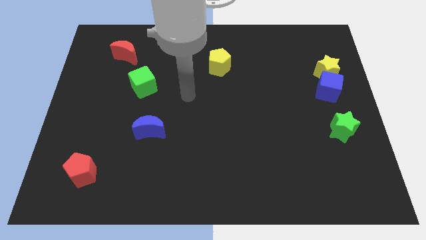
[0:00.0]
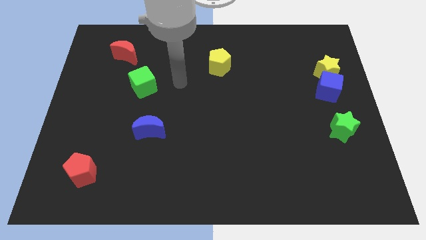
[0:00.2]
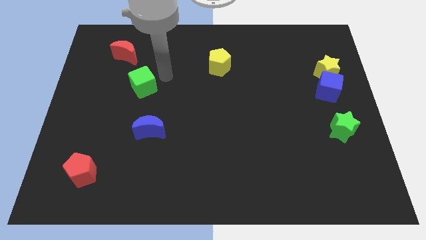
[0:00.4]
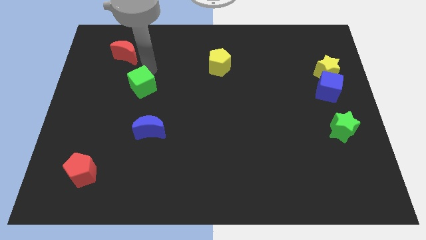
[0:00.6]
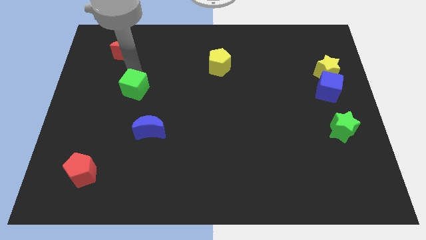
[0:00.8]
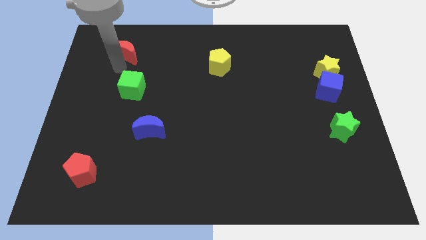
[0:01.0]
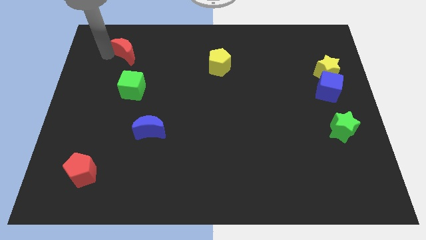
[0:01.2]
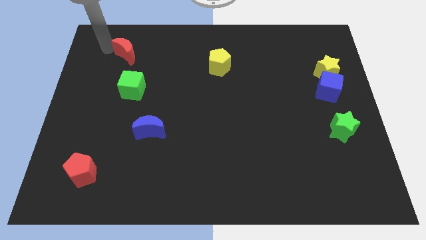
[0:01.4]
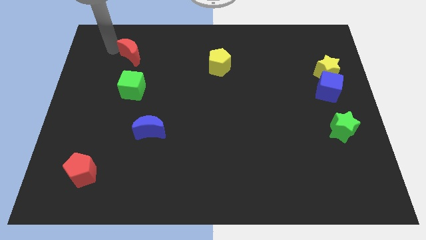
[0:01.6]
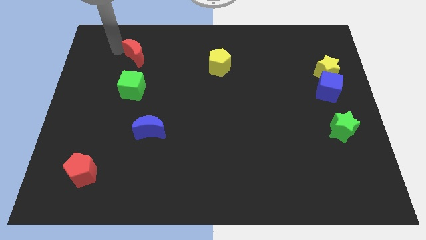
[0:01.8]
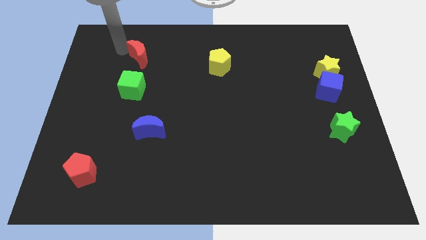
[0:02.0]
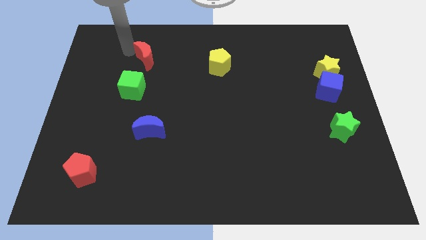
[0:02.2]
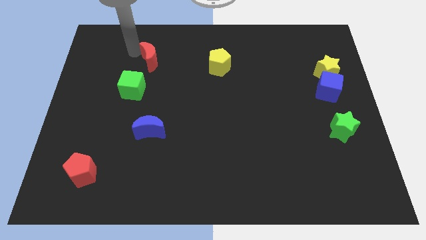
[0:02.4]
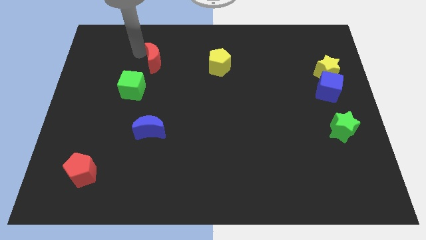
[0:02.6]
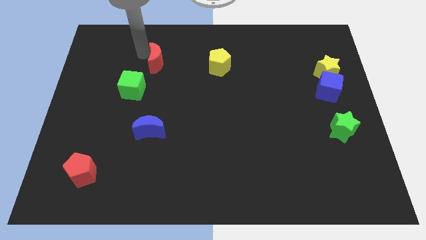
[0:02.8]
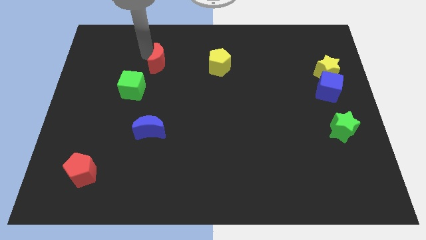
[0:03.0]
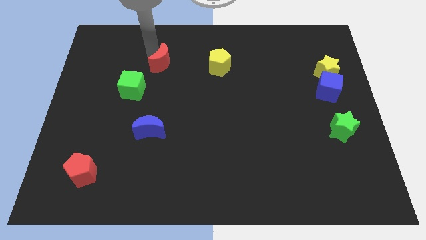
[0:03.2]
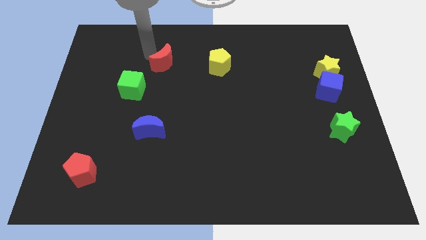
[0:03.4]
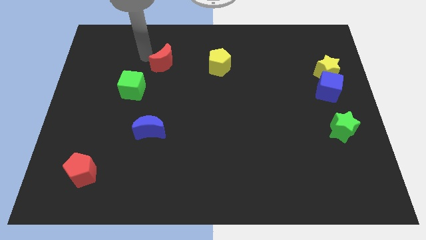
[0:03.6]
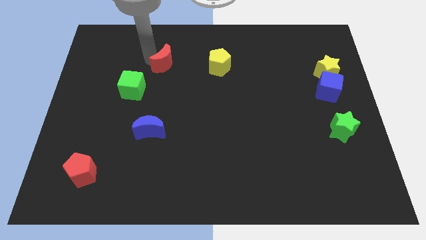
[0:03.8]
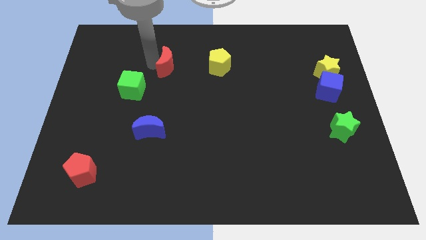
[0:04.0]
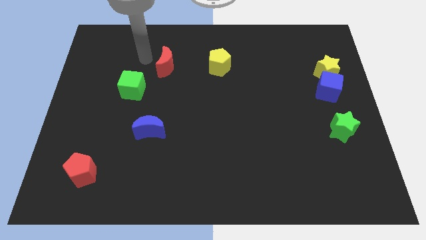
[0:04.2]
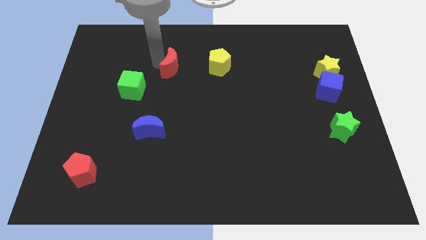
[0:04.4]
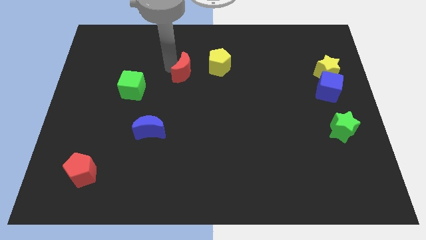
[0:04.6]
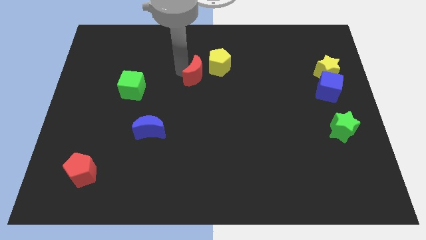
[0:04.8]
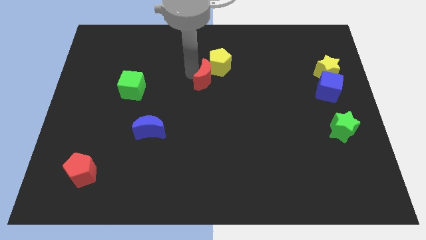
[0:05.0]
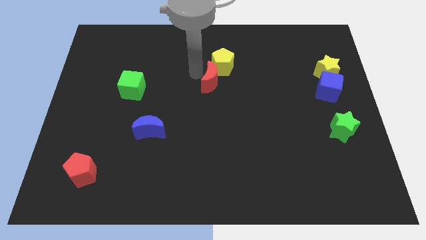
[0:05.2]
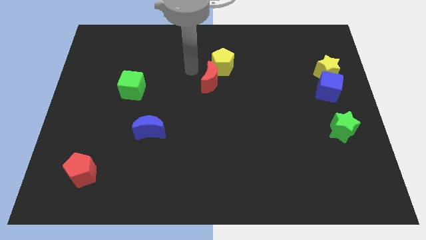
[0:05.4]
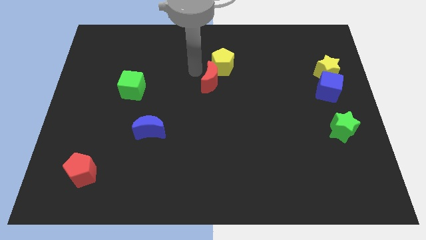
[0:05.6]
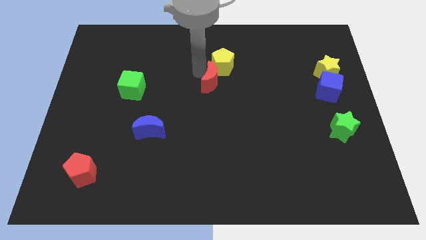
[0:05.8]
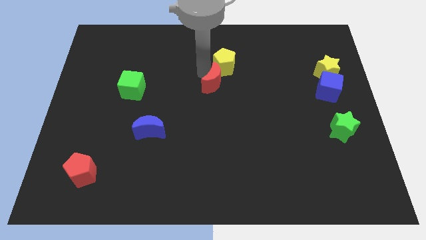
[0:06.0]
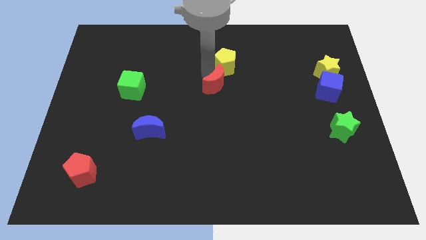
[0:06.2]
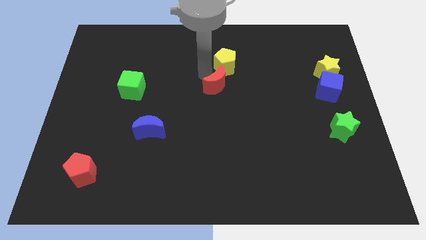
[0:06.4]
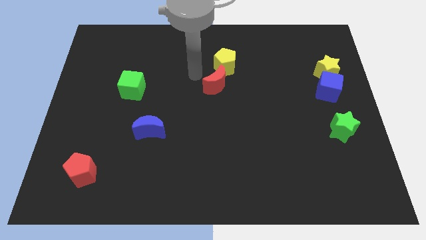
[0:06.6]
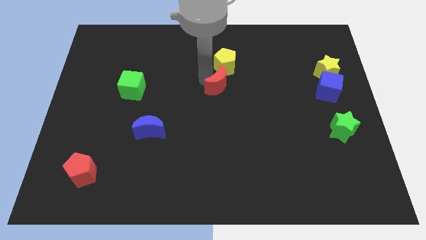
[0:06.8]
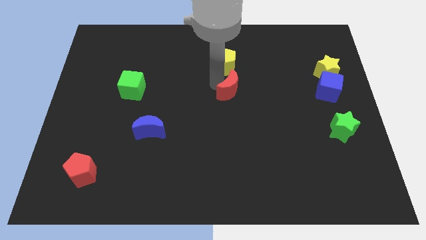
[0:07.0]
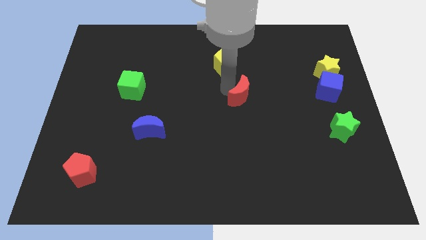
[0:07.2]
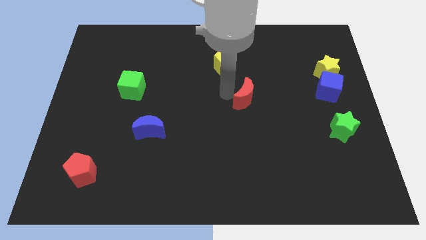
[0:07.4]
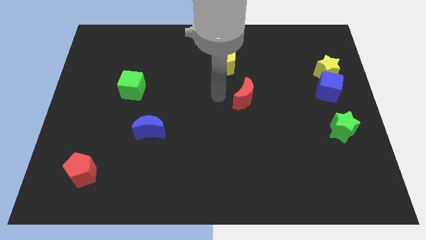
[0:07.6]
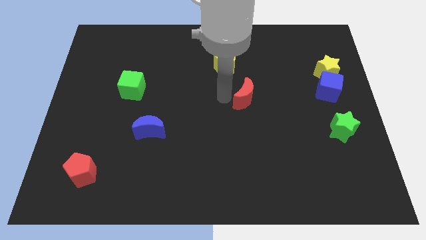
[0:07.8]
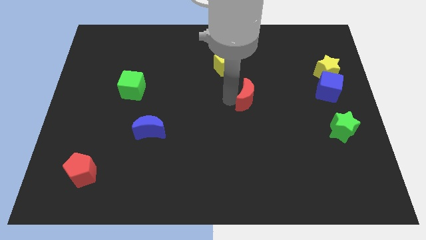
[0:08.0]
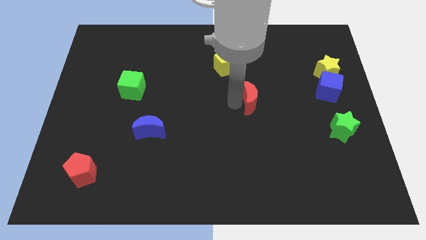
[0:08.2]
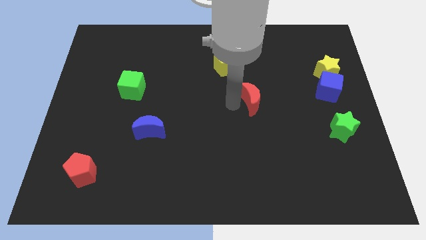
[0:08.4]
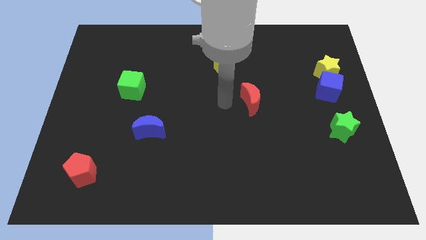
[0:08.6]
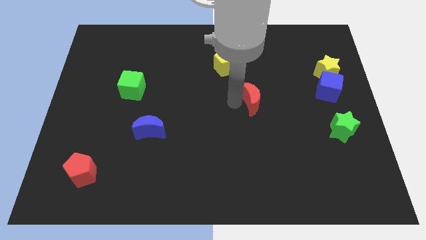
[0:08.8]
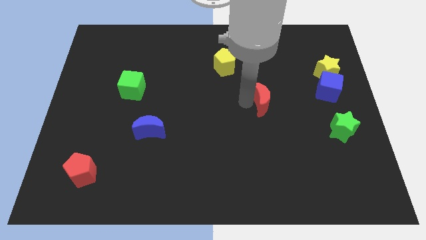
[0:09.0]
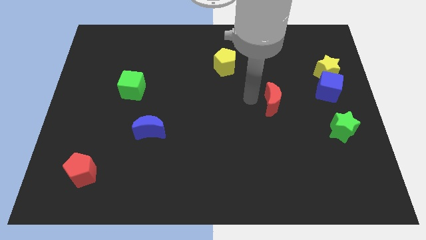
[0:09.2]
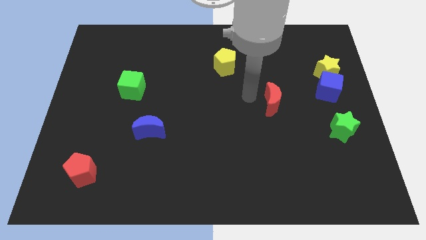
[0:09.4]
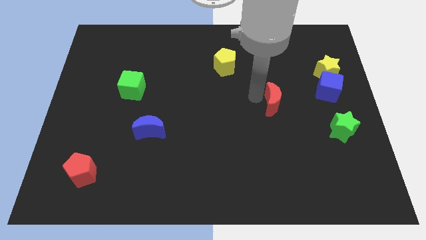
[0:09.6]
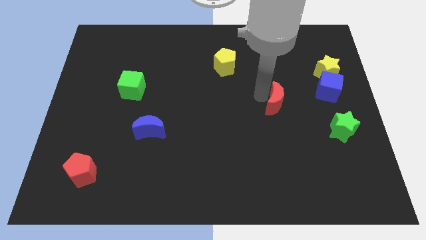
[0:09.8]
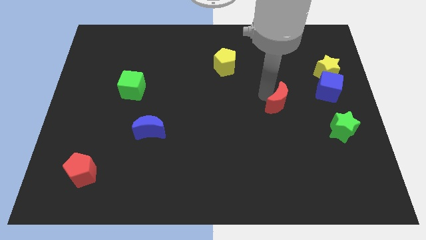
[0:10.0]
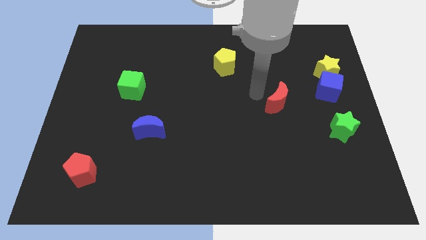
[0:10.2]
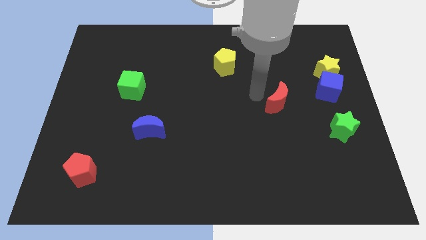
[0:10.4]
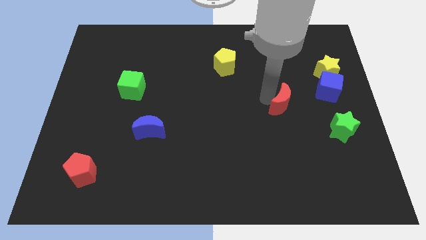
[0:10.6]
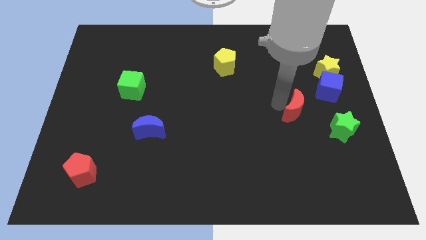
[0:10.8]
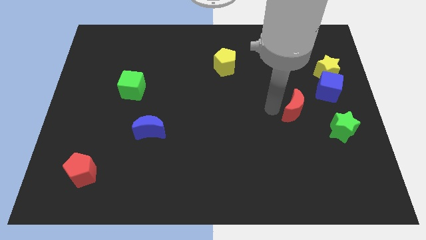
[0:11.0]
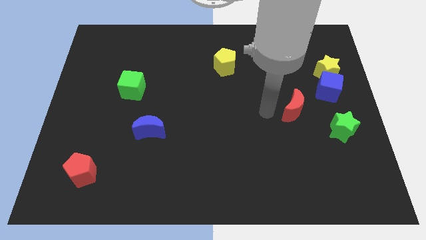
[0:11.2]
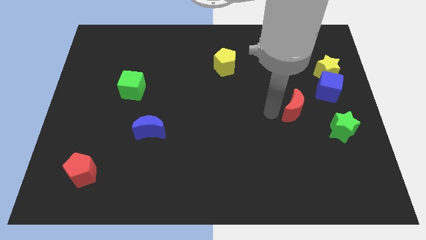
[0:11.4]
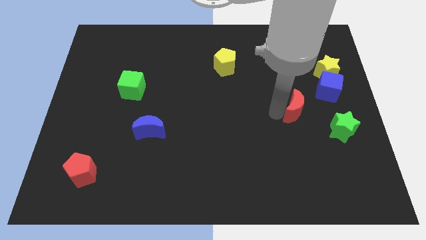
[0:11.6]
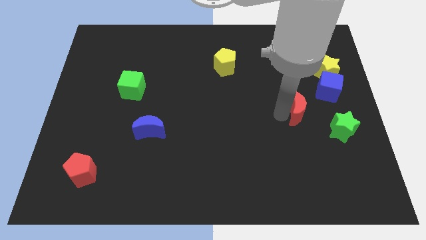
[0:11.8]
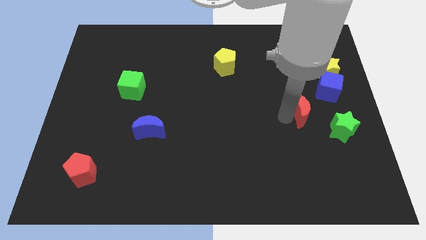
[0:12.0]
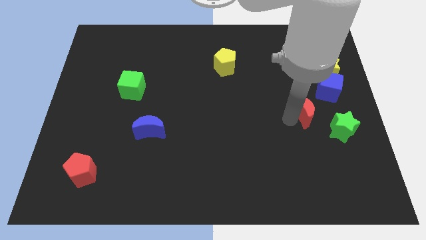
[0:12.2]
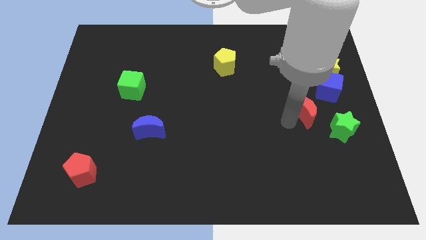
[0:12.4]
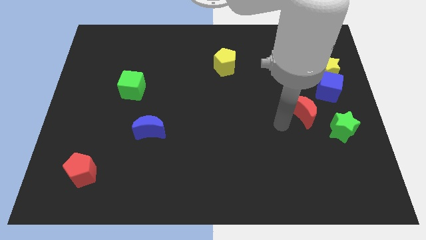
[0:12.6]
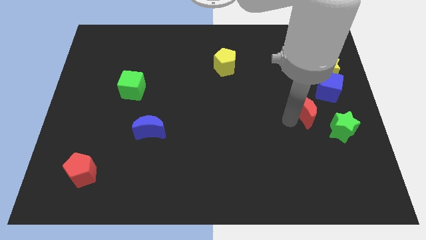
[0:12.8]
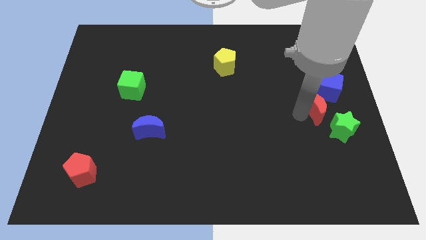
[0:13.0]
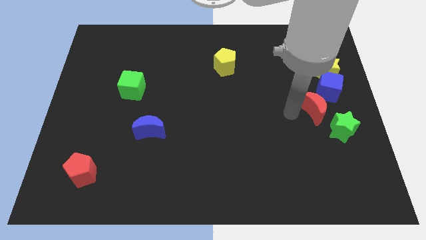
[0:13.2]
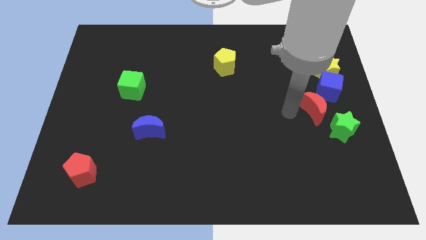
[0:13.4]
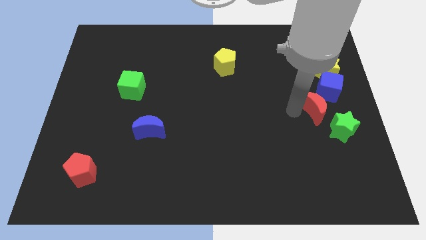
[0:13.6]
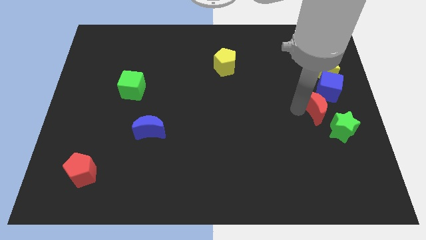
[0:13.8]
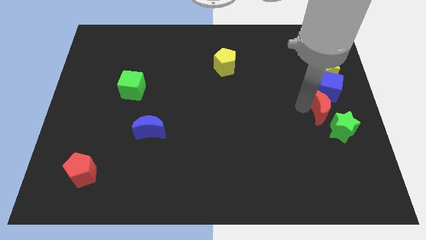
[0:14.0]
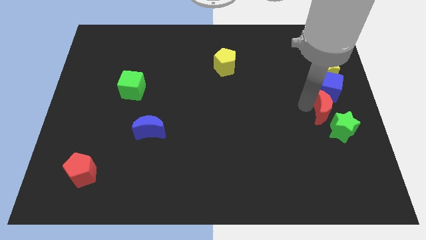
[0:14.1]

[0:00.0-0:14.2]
put the red moon to the center right

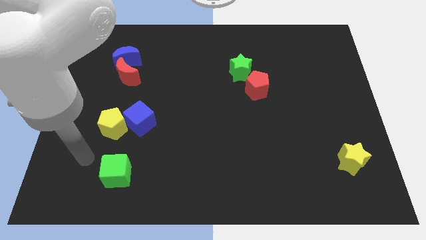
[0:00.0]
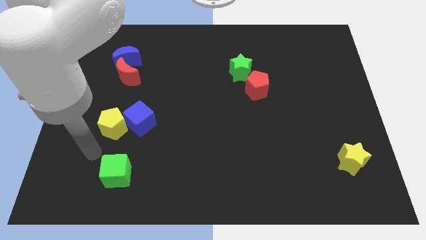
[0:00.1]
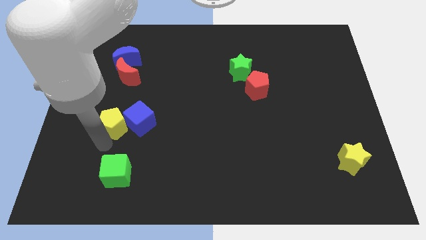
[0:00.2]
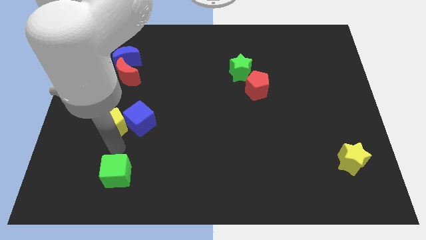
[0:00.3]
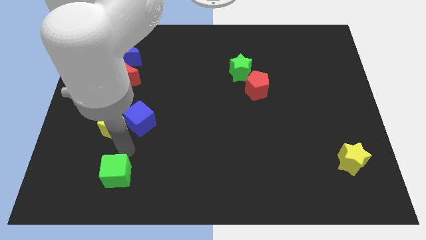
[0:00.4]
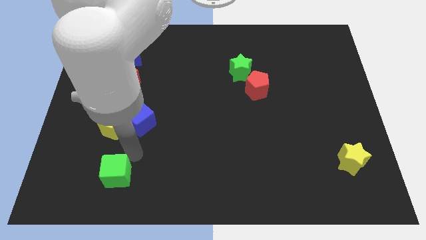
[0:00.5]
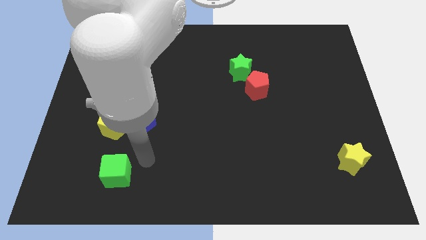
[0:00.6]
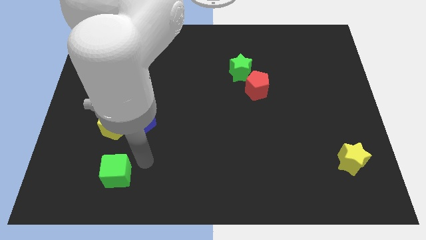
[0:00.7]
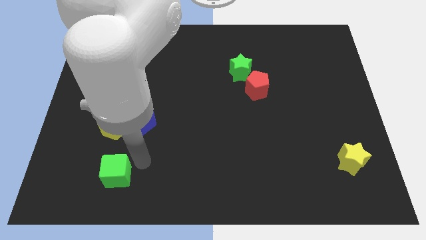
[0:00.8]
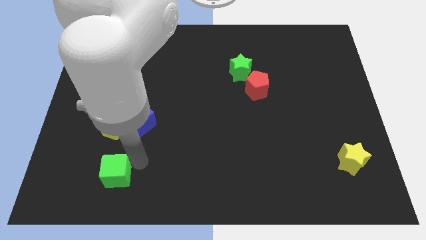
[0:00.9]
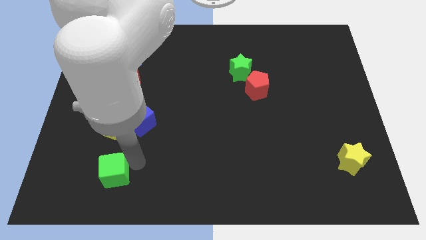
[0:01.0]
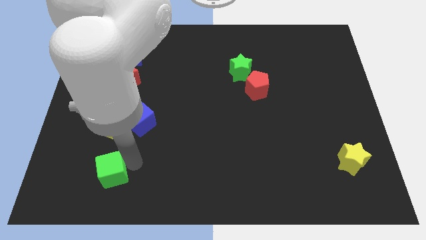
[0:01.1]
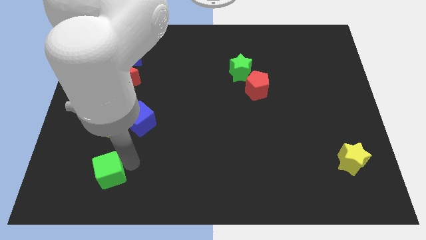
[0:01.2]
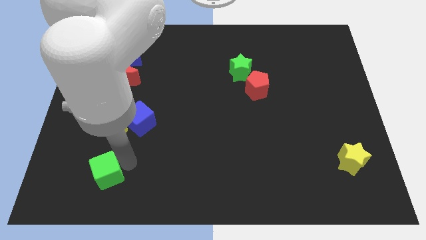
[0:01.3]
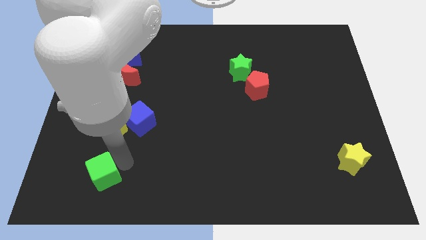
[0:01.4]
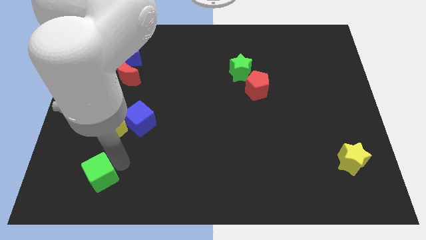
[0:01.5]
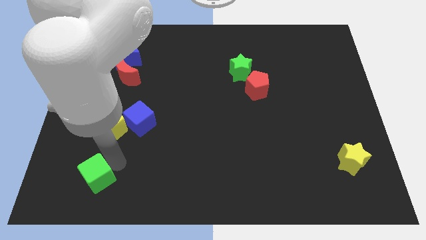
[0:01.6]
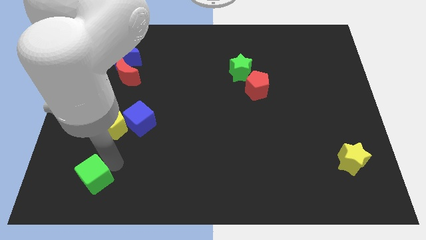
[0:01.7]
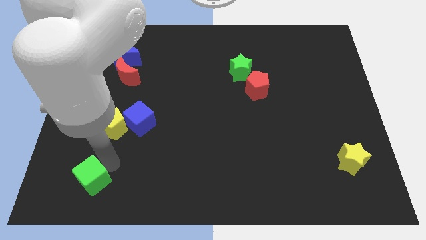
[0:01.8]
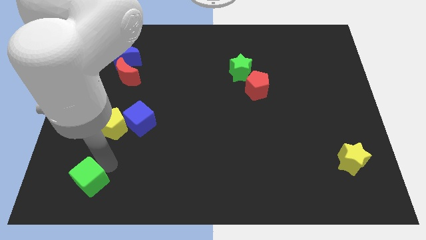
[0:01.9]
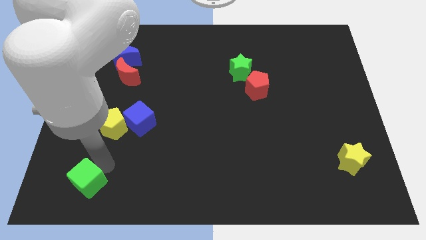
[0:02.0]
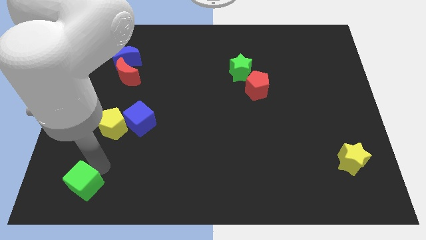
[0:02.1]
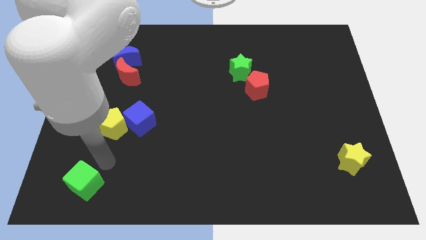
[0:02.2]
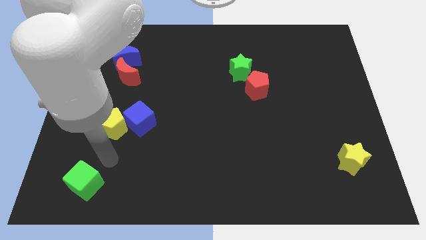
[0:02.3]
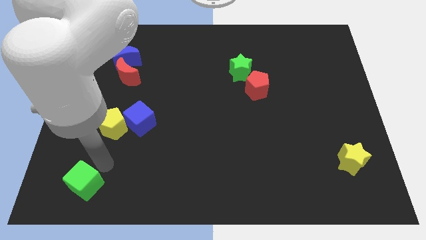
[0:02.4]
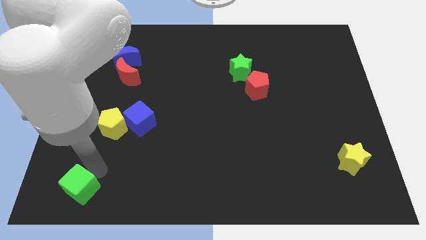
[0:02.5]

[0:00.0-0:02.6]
put the green cube to the lower left corner
